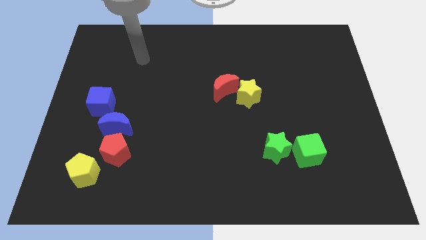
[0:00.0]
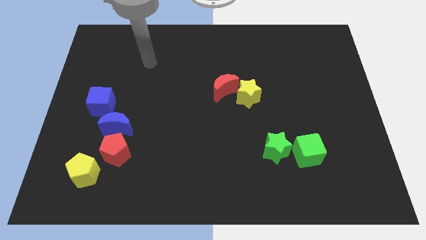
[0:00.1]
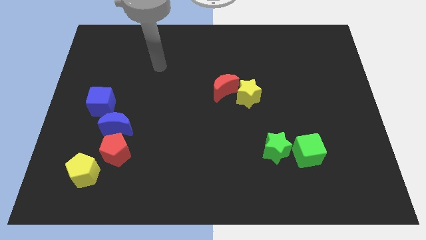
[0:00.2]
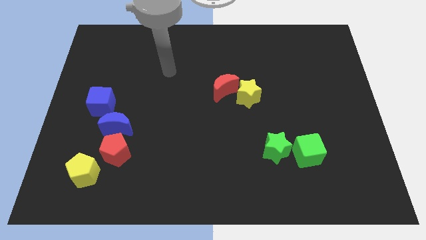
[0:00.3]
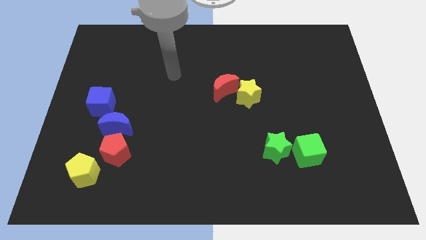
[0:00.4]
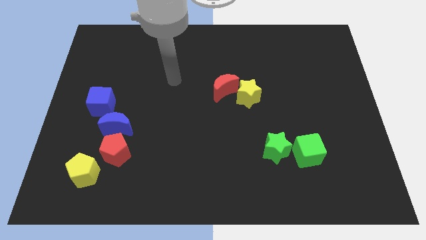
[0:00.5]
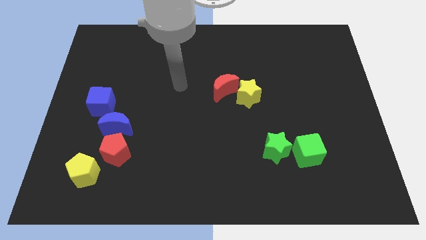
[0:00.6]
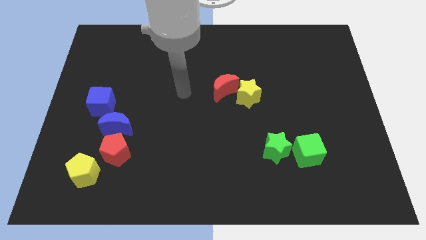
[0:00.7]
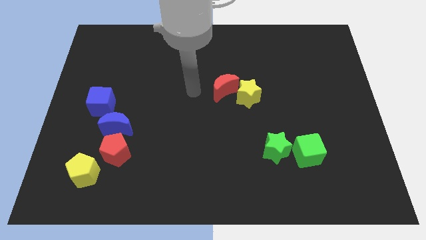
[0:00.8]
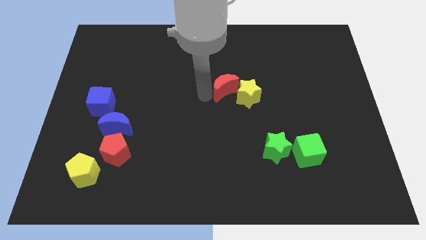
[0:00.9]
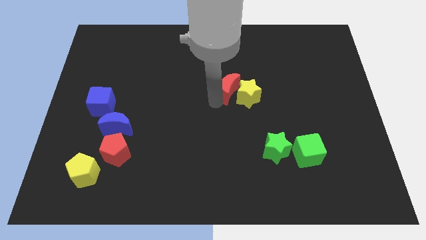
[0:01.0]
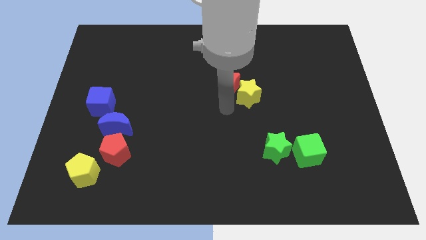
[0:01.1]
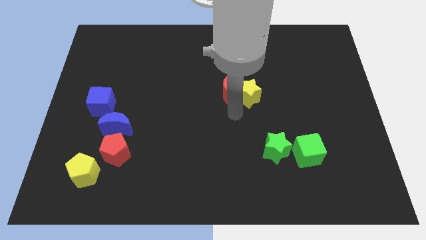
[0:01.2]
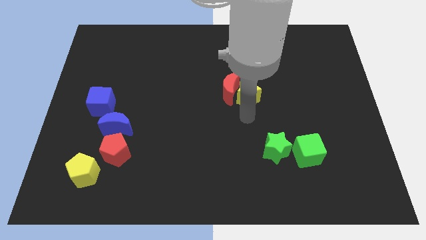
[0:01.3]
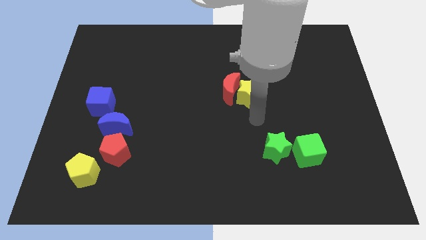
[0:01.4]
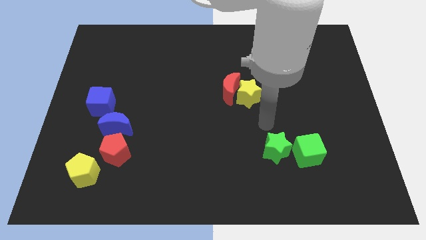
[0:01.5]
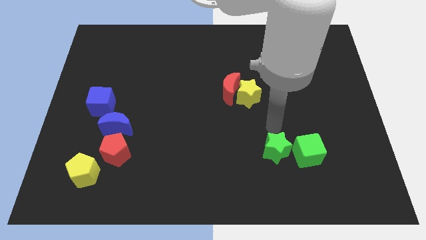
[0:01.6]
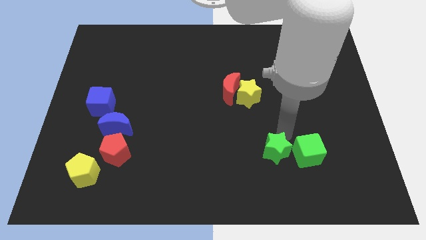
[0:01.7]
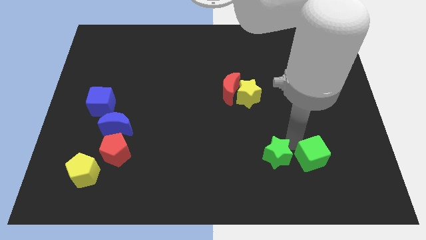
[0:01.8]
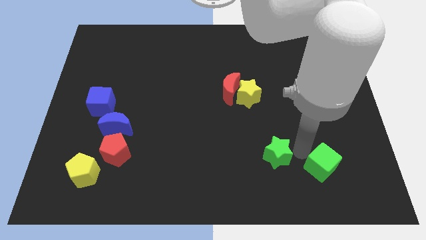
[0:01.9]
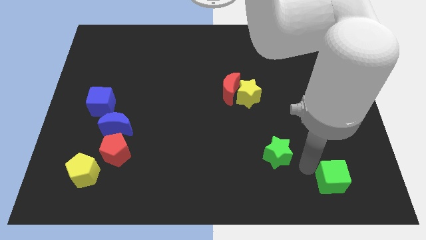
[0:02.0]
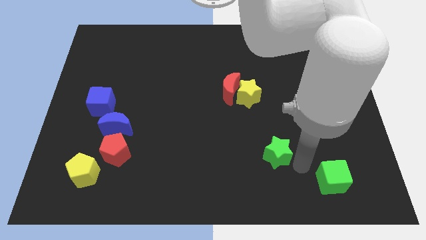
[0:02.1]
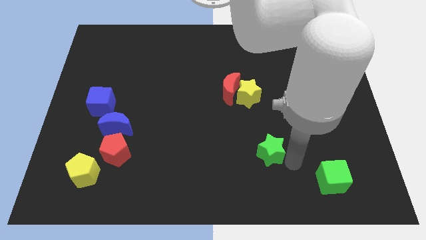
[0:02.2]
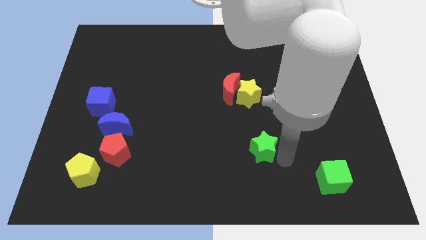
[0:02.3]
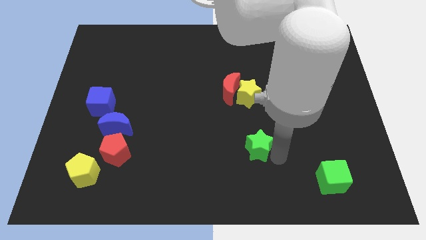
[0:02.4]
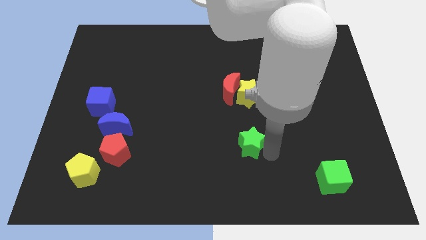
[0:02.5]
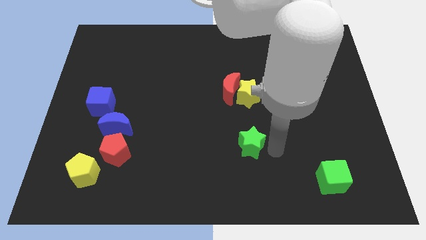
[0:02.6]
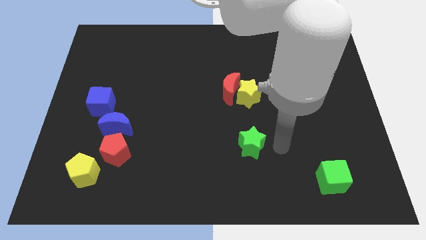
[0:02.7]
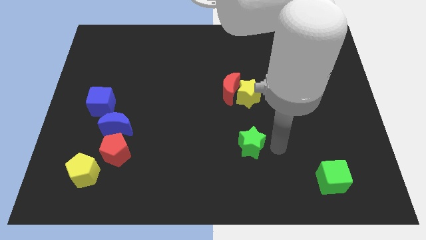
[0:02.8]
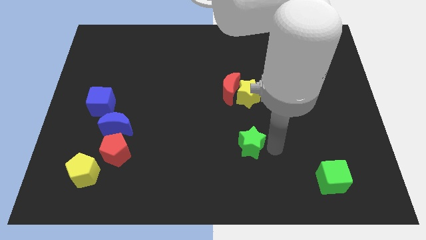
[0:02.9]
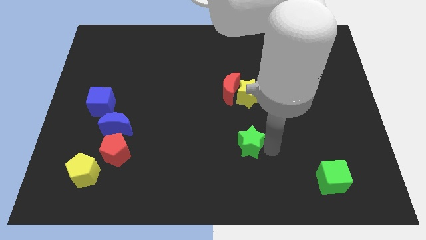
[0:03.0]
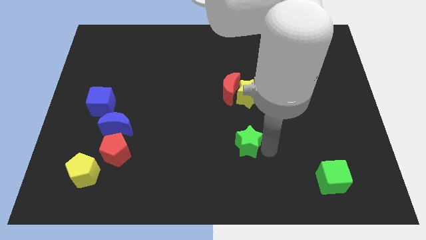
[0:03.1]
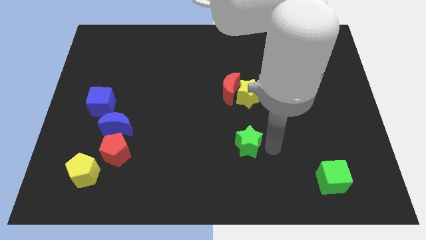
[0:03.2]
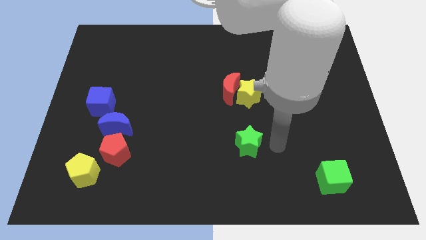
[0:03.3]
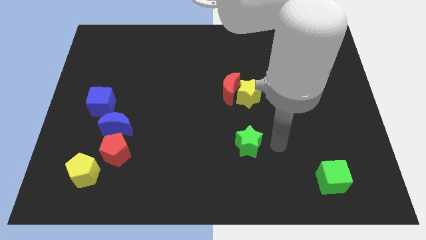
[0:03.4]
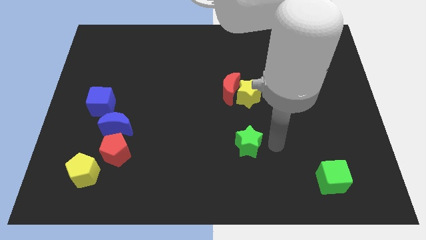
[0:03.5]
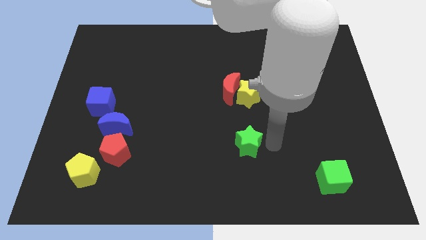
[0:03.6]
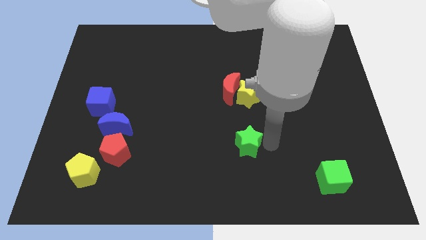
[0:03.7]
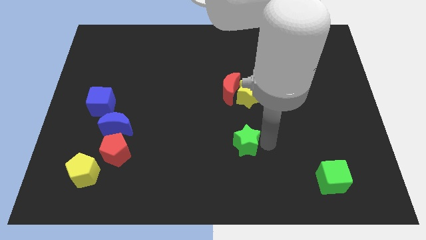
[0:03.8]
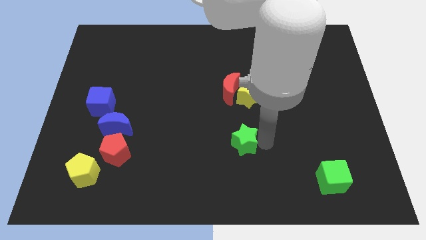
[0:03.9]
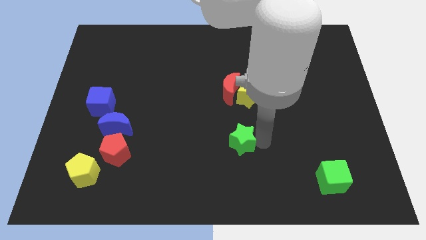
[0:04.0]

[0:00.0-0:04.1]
slightly slide the green star to the left

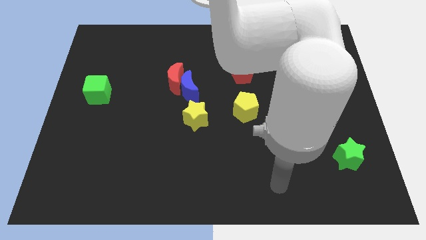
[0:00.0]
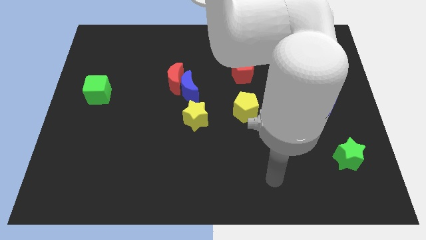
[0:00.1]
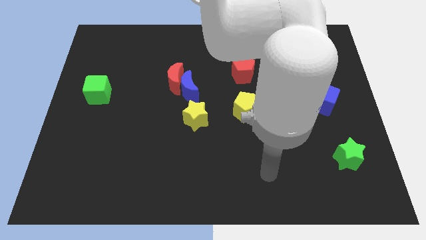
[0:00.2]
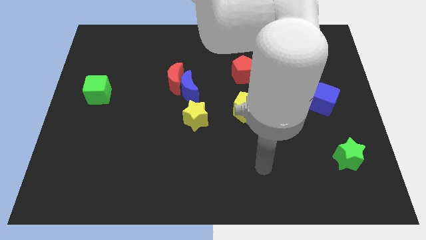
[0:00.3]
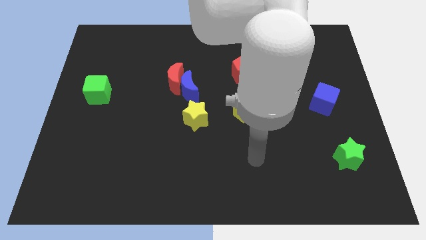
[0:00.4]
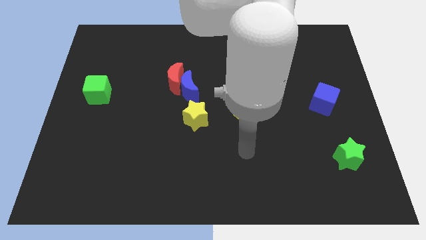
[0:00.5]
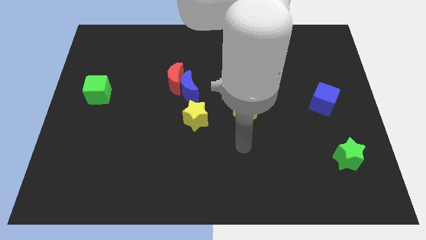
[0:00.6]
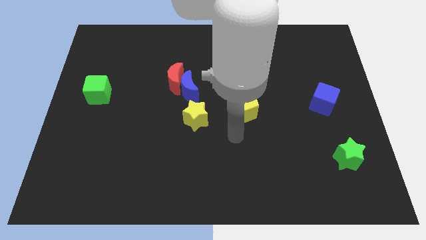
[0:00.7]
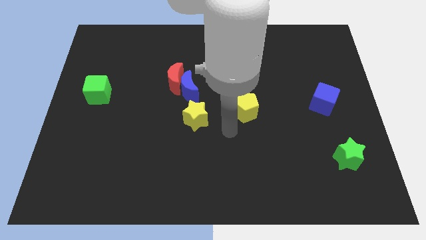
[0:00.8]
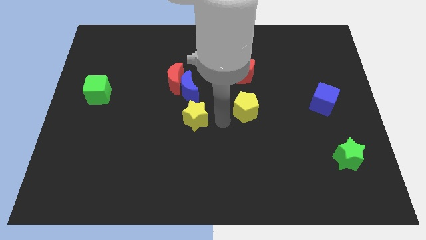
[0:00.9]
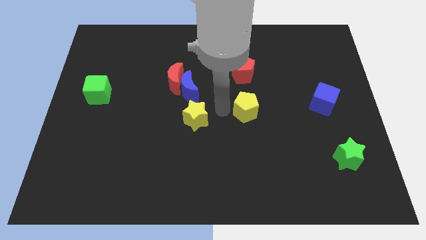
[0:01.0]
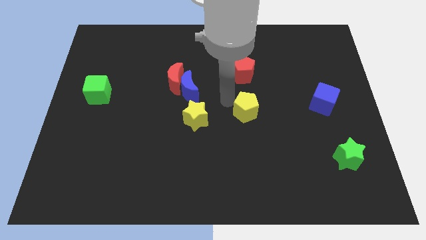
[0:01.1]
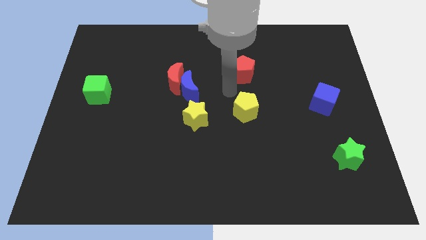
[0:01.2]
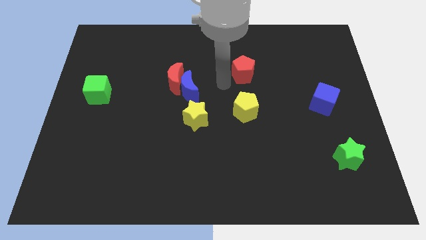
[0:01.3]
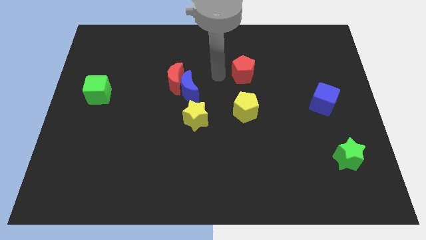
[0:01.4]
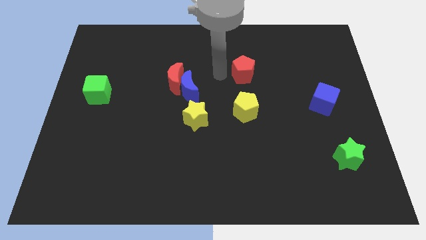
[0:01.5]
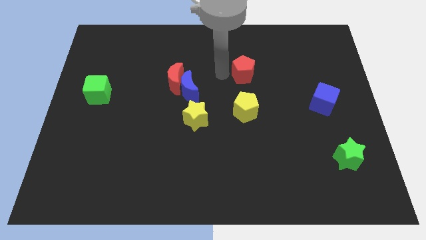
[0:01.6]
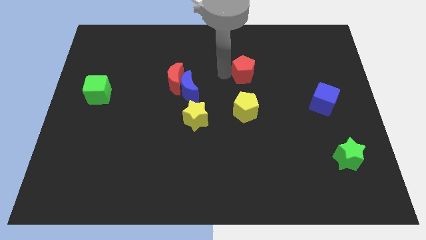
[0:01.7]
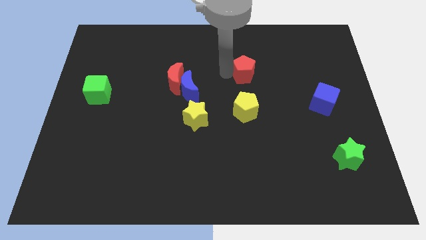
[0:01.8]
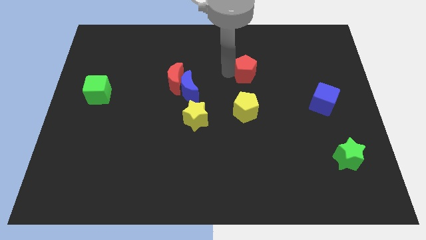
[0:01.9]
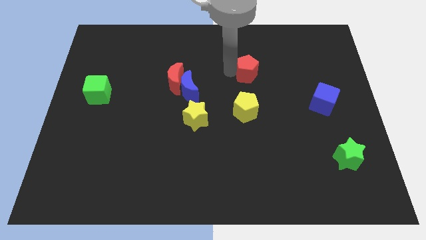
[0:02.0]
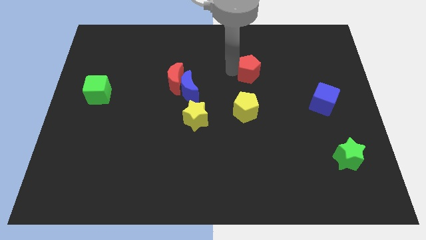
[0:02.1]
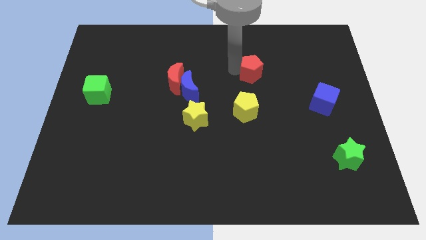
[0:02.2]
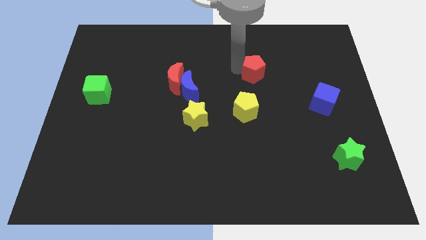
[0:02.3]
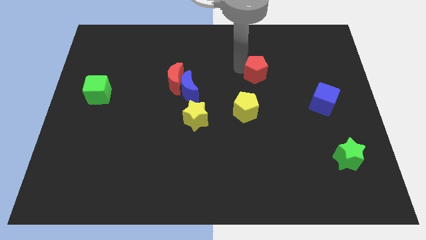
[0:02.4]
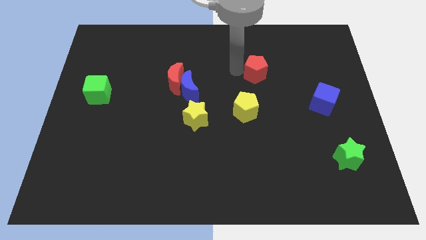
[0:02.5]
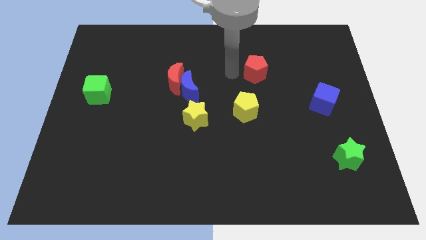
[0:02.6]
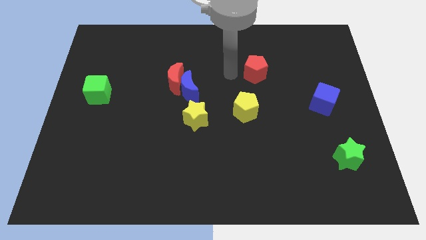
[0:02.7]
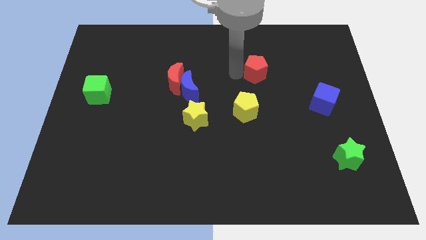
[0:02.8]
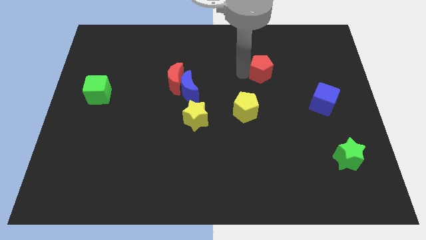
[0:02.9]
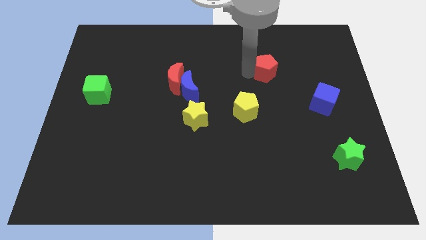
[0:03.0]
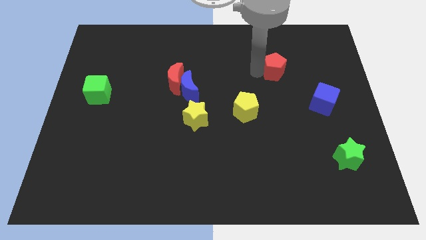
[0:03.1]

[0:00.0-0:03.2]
push the red pentagon to the right a little
